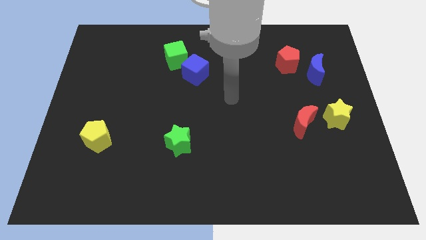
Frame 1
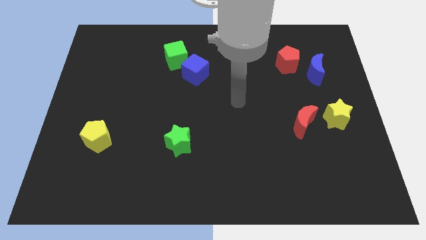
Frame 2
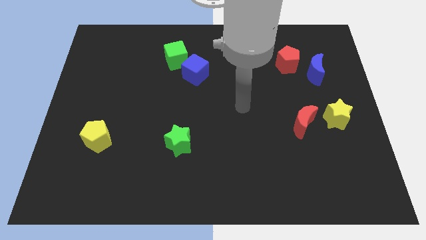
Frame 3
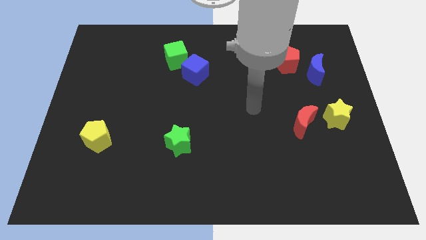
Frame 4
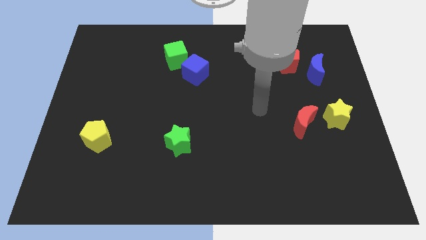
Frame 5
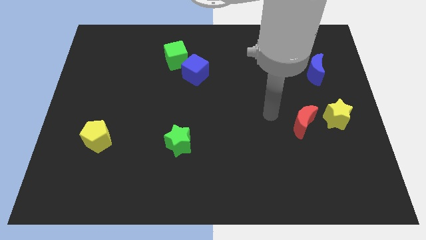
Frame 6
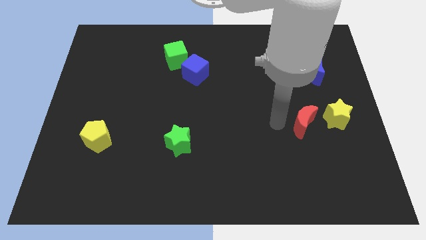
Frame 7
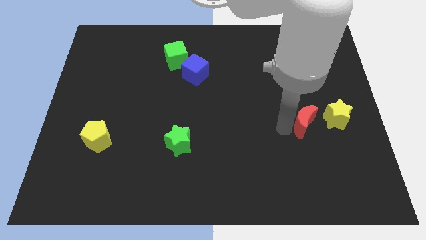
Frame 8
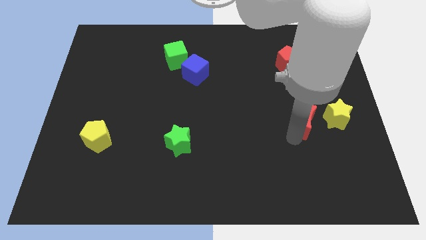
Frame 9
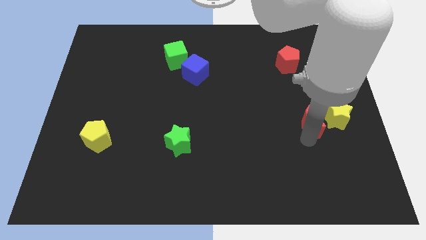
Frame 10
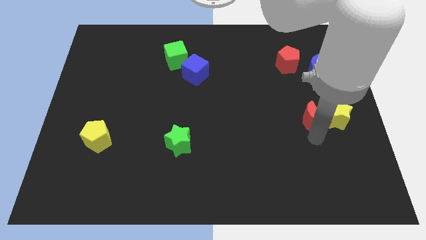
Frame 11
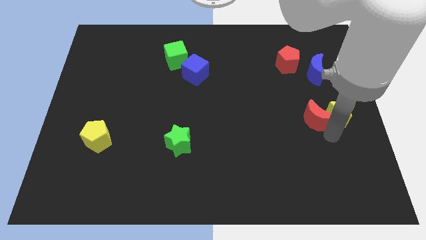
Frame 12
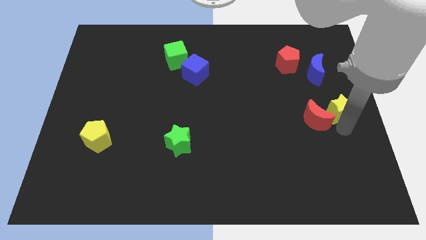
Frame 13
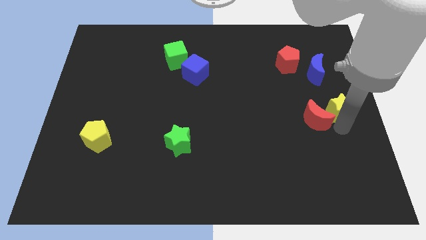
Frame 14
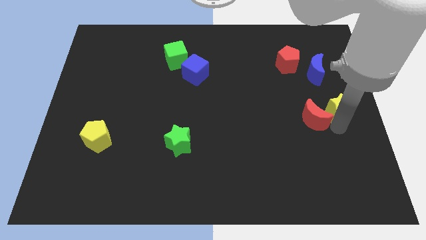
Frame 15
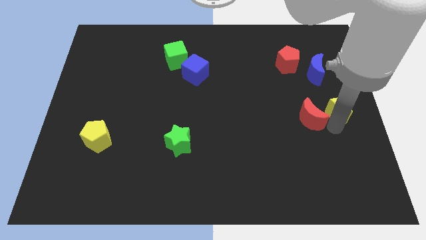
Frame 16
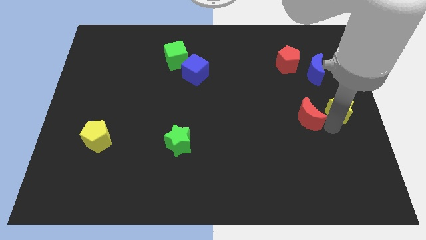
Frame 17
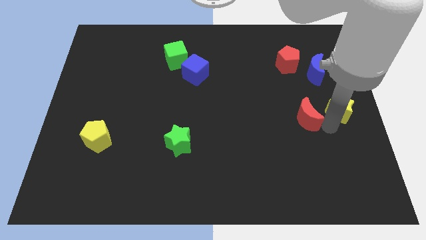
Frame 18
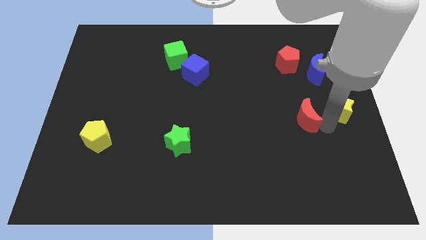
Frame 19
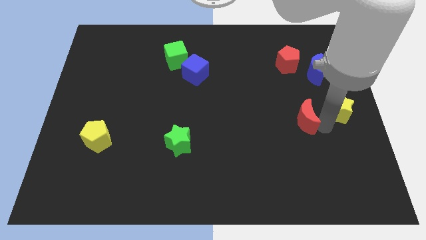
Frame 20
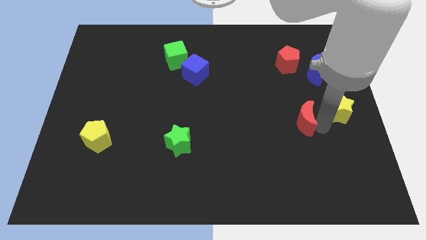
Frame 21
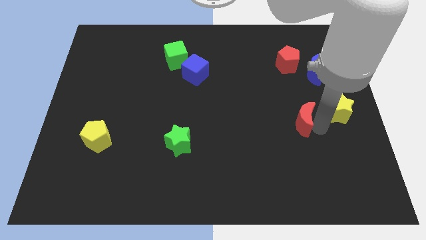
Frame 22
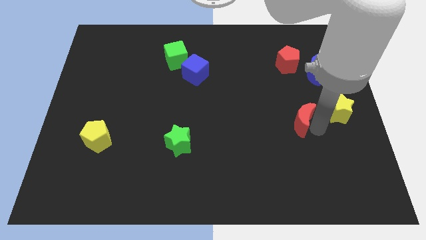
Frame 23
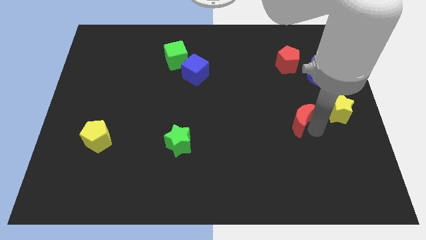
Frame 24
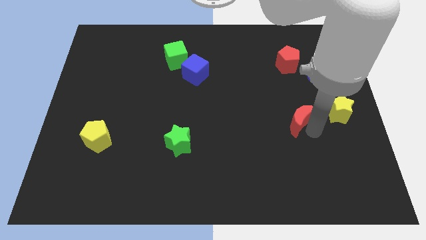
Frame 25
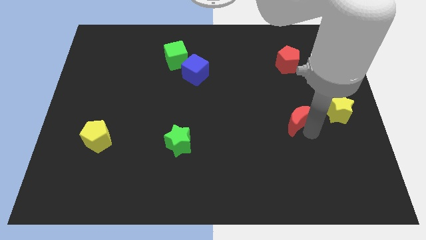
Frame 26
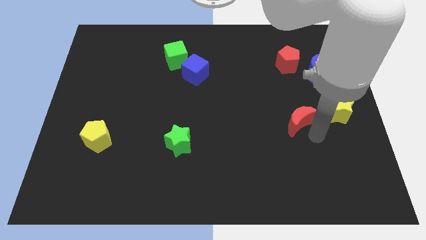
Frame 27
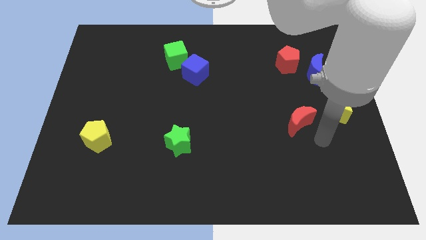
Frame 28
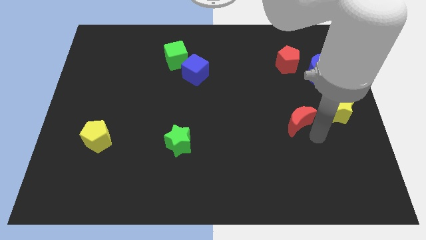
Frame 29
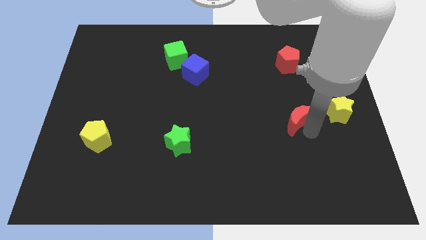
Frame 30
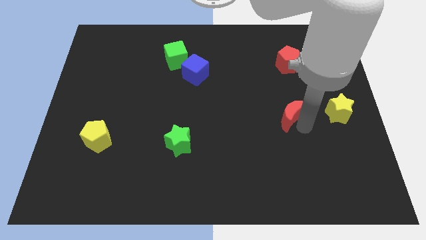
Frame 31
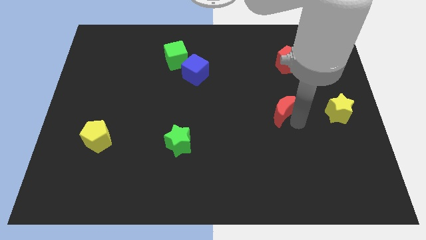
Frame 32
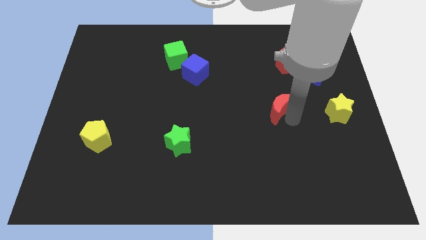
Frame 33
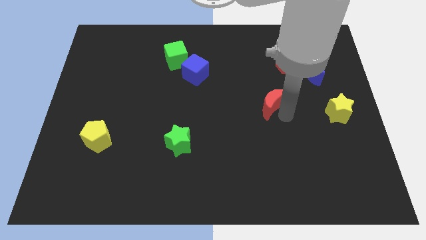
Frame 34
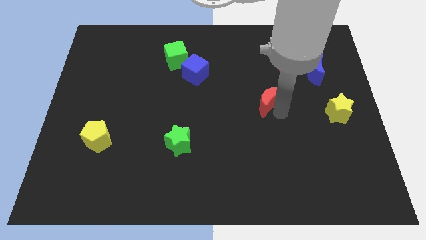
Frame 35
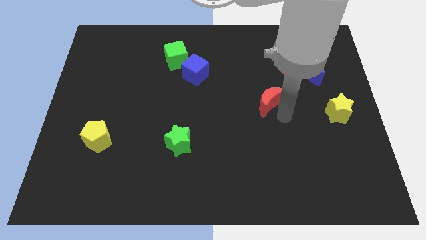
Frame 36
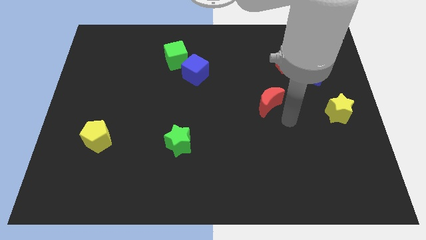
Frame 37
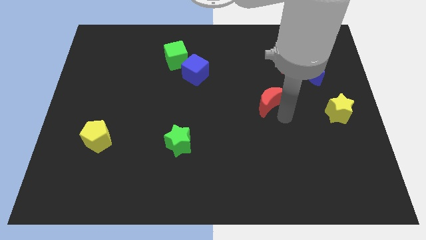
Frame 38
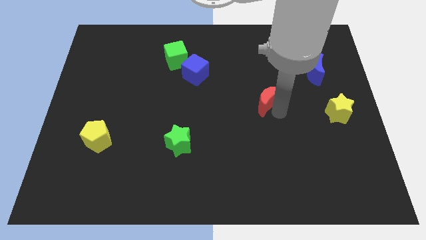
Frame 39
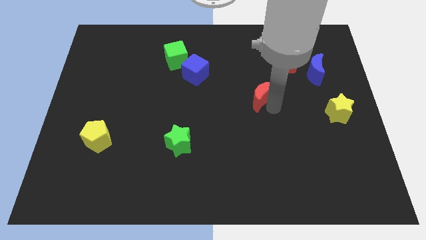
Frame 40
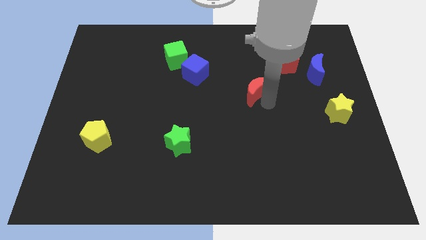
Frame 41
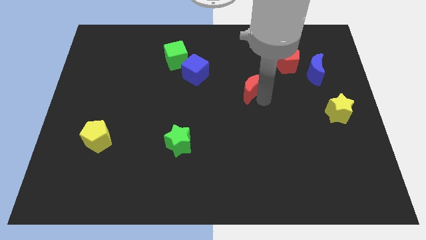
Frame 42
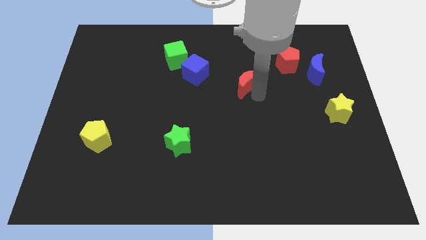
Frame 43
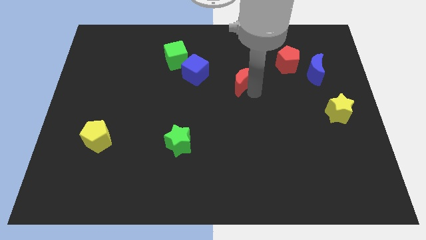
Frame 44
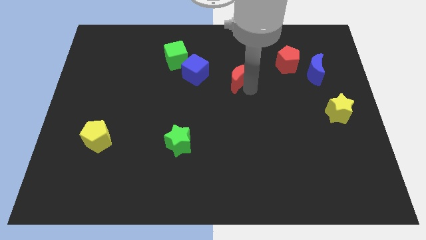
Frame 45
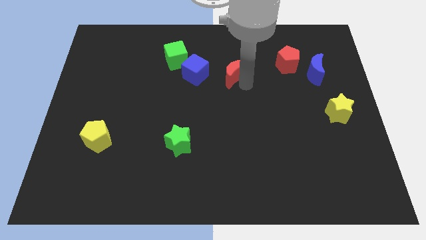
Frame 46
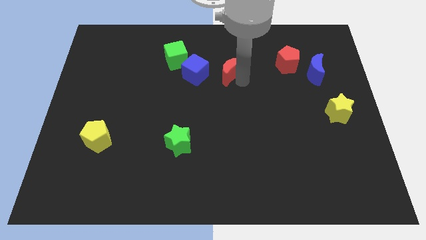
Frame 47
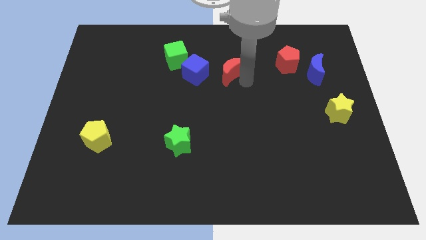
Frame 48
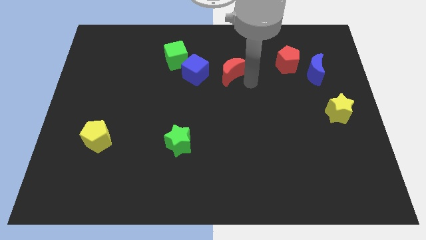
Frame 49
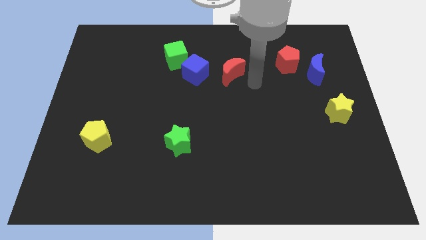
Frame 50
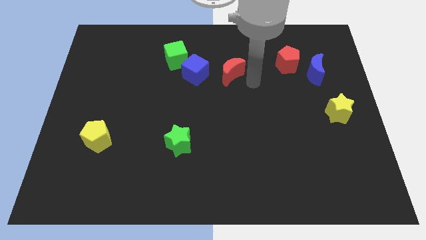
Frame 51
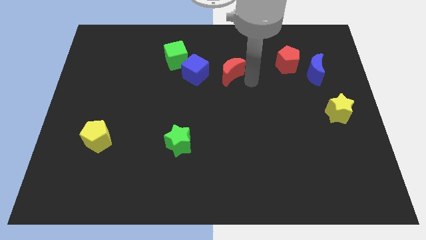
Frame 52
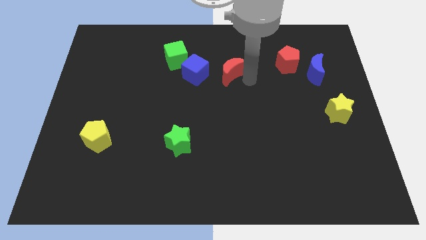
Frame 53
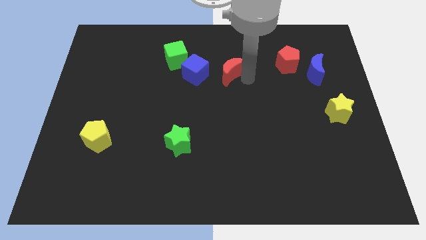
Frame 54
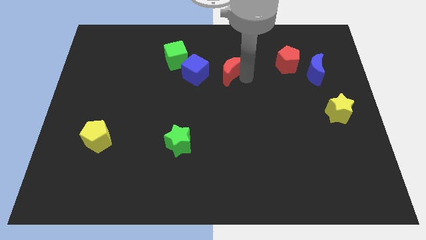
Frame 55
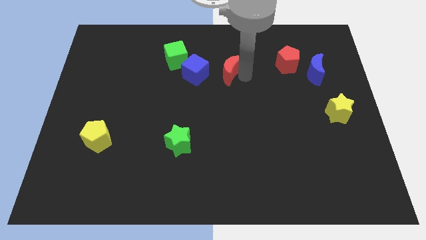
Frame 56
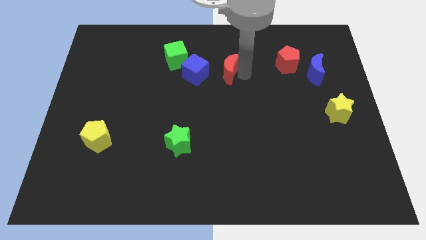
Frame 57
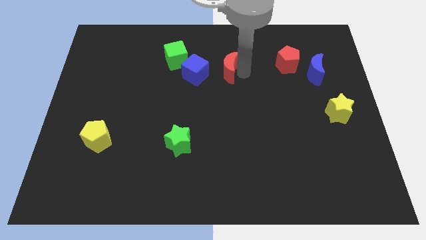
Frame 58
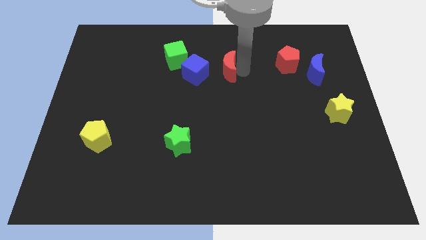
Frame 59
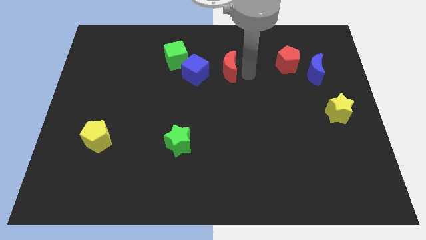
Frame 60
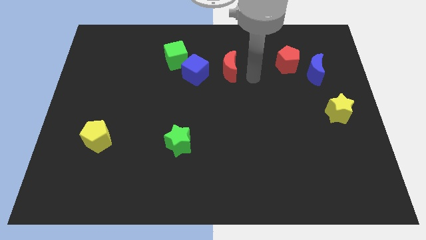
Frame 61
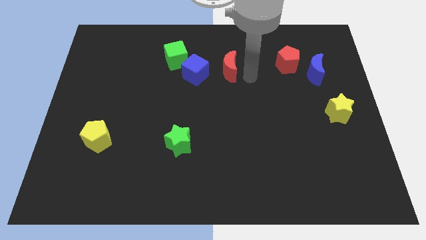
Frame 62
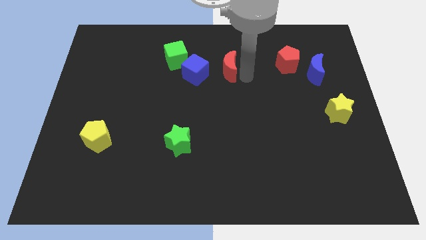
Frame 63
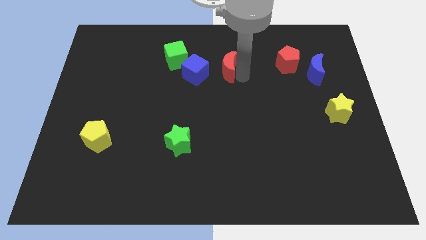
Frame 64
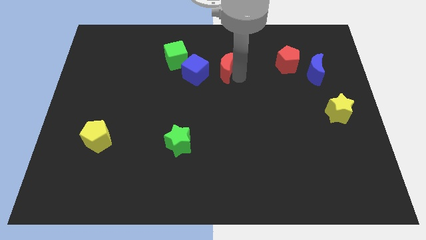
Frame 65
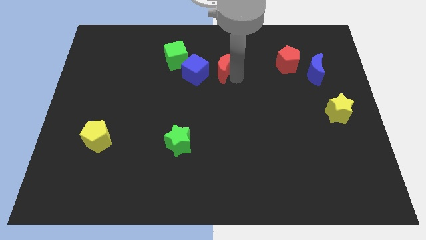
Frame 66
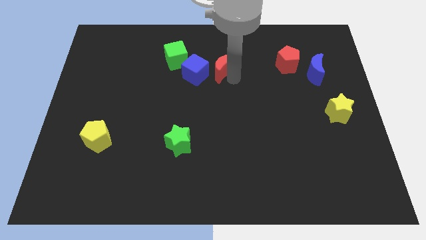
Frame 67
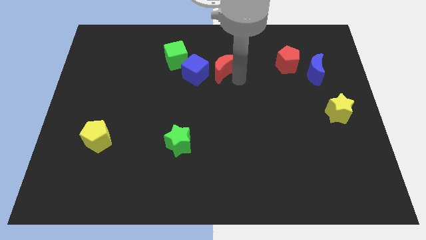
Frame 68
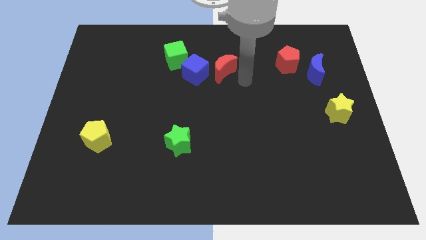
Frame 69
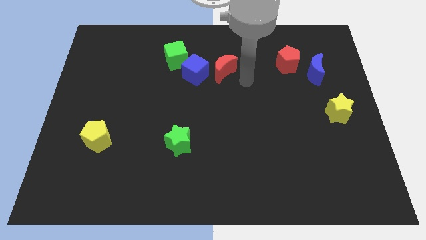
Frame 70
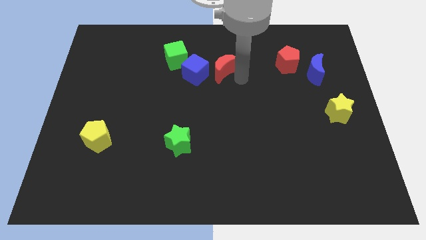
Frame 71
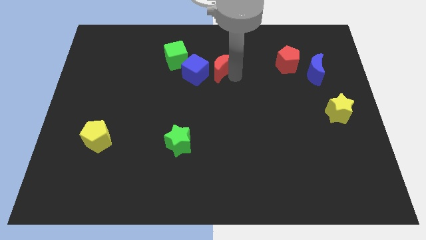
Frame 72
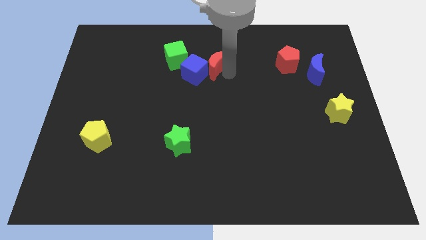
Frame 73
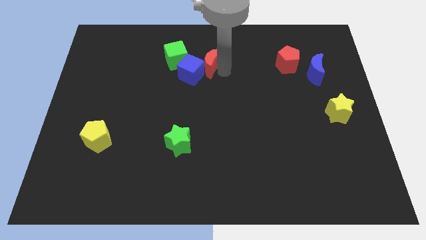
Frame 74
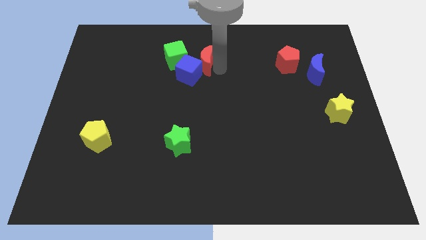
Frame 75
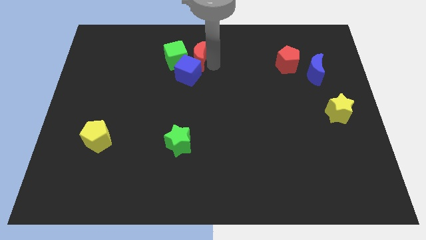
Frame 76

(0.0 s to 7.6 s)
slide the red moon to the green cube

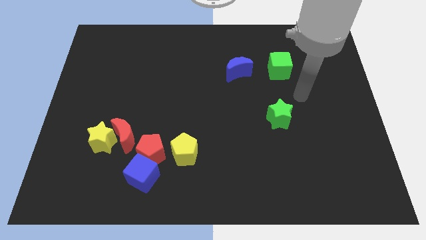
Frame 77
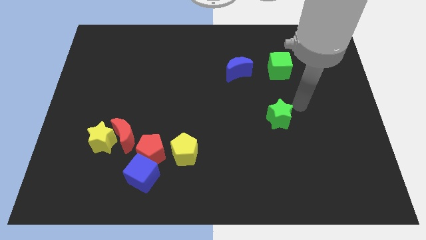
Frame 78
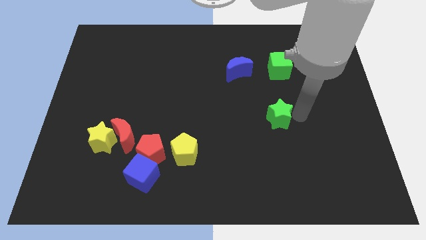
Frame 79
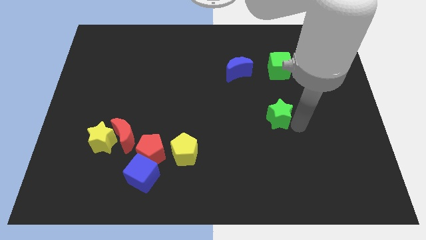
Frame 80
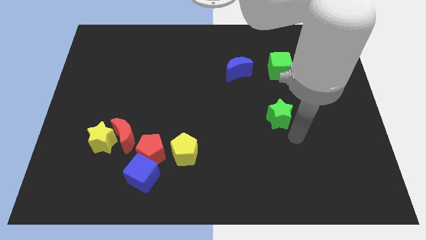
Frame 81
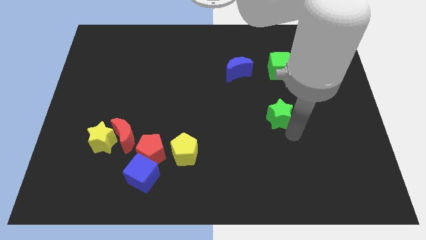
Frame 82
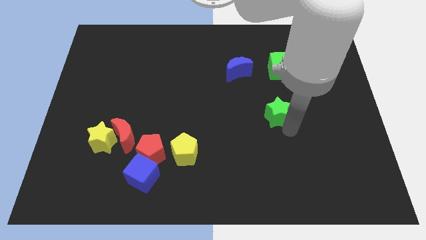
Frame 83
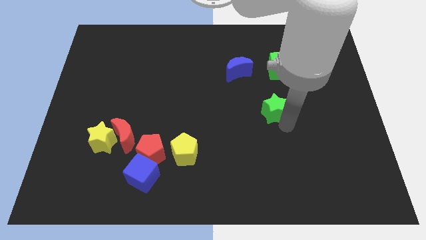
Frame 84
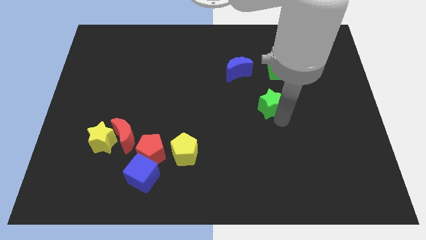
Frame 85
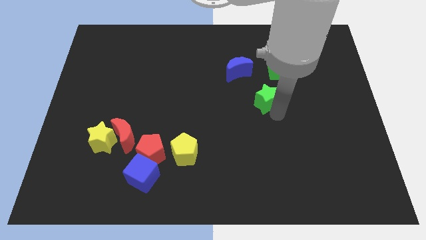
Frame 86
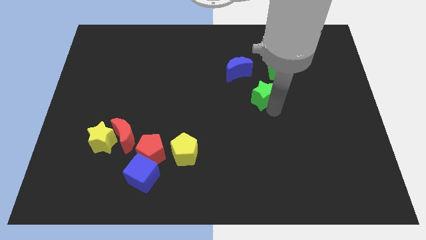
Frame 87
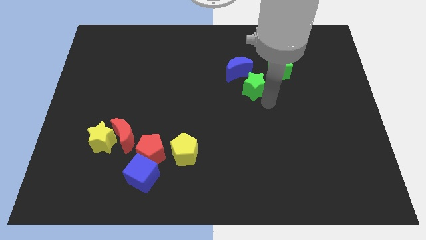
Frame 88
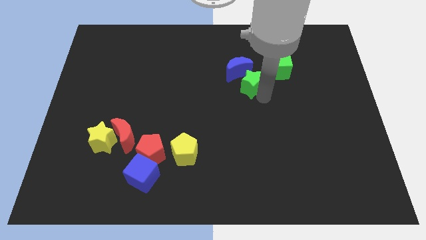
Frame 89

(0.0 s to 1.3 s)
slide the green star next to the blue moon
